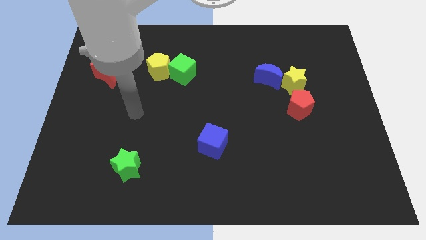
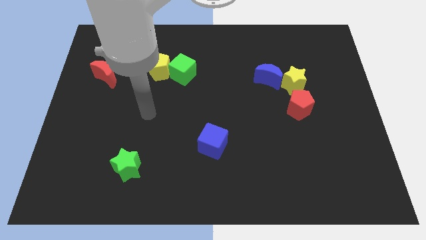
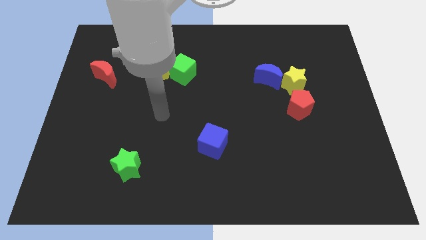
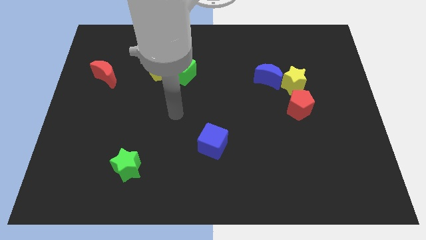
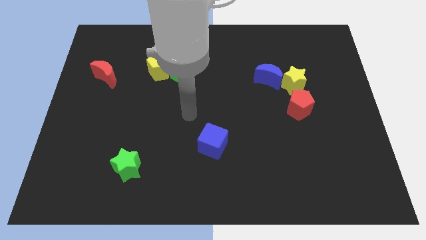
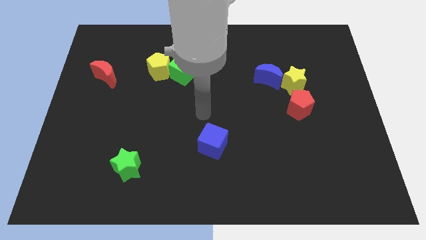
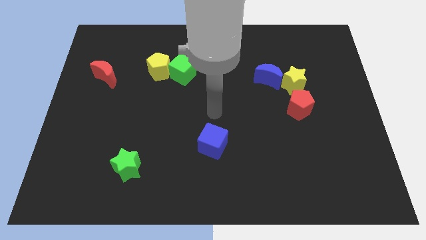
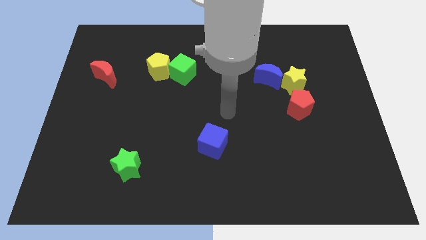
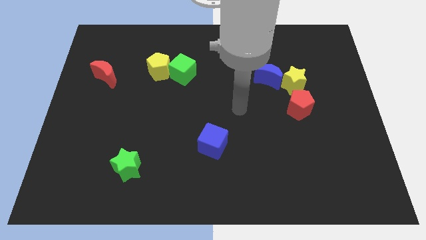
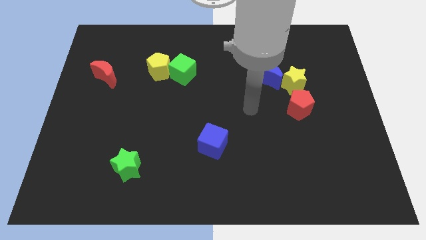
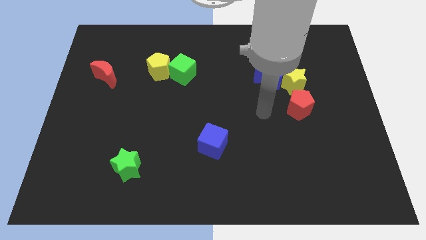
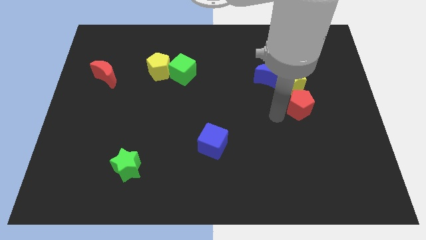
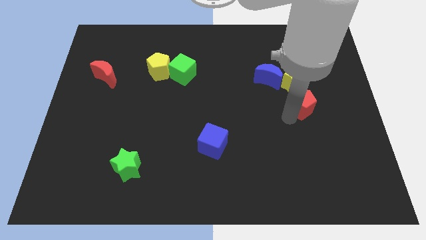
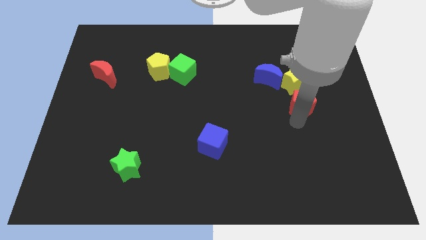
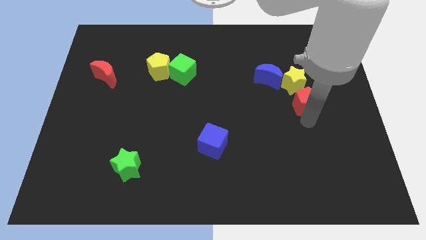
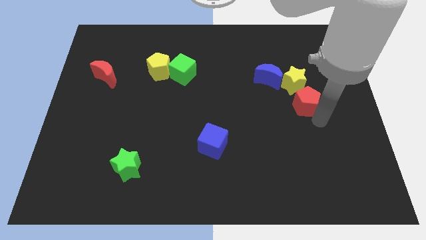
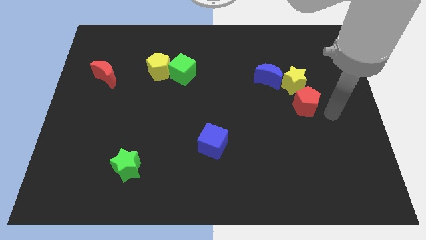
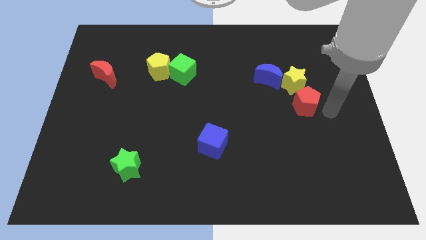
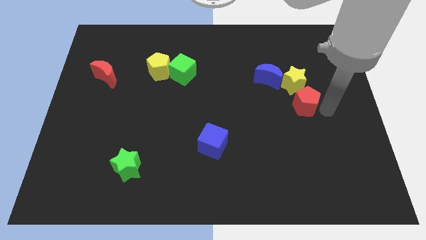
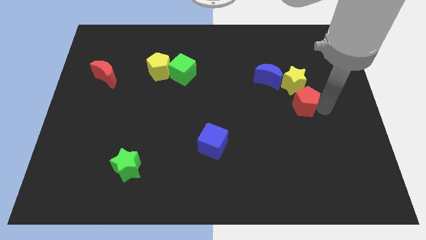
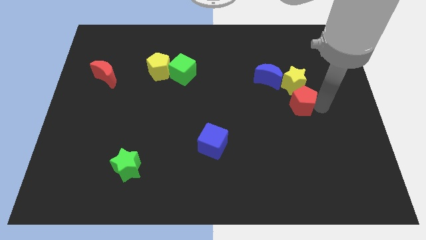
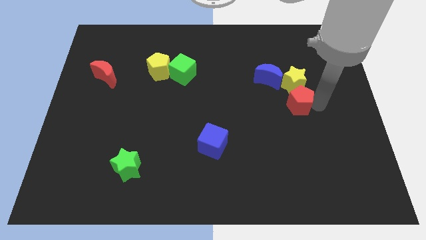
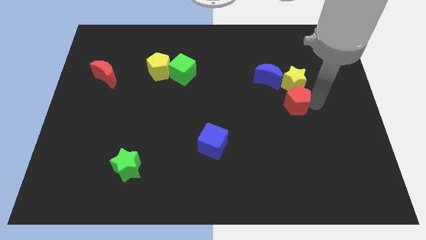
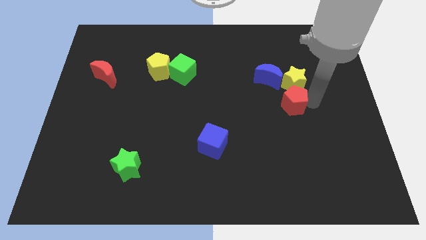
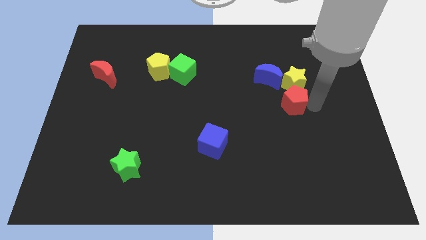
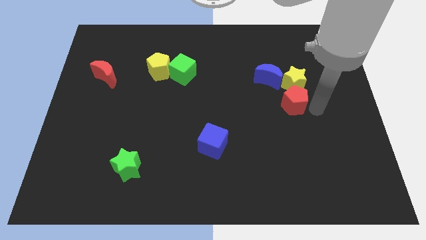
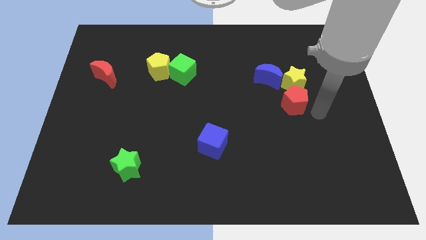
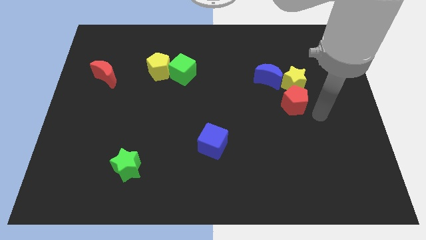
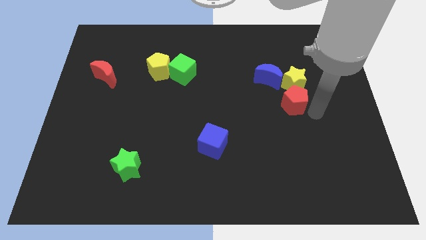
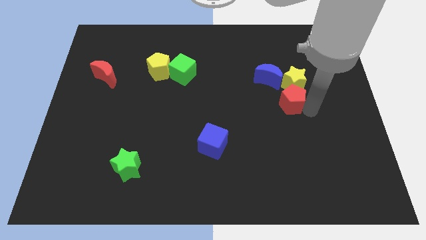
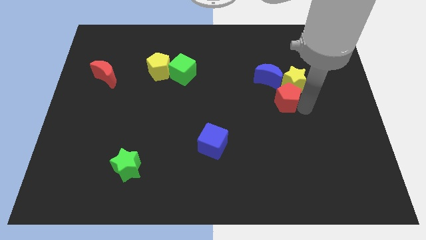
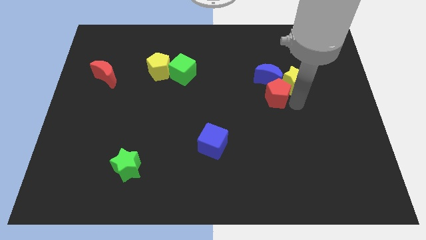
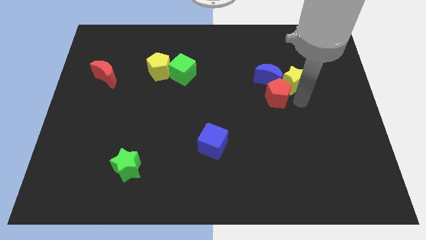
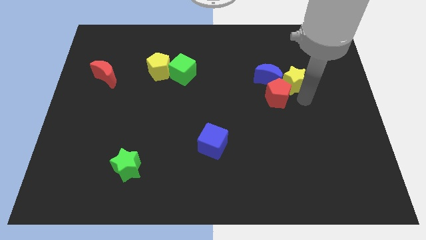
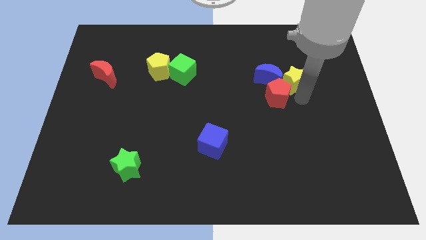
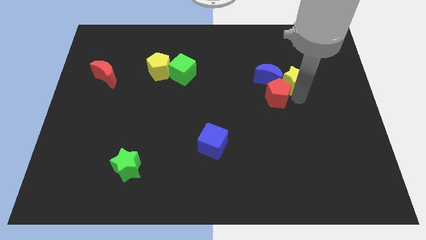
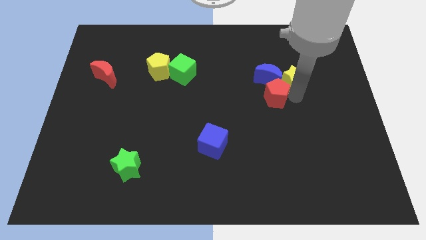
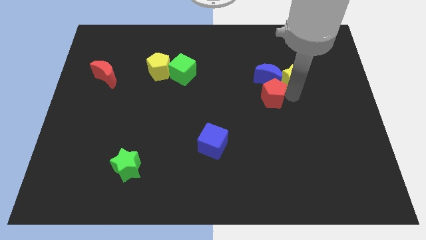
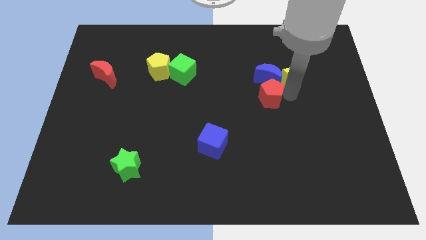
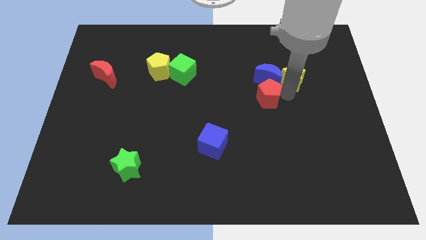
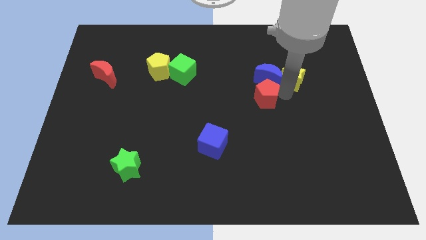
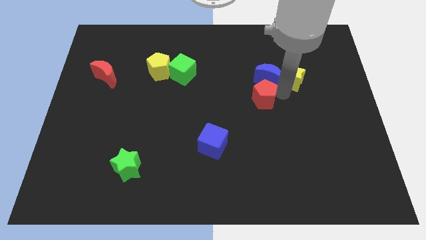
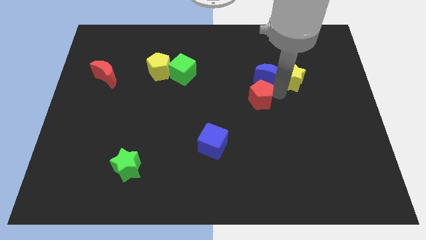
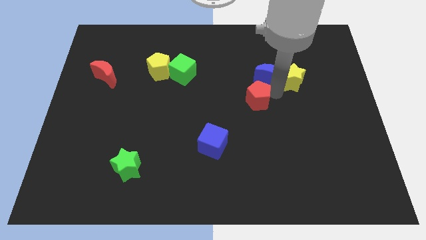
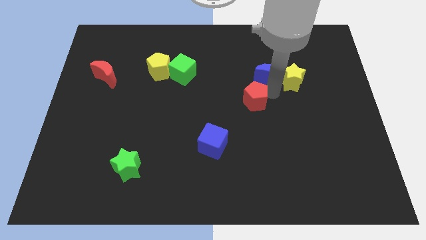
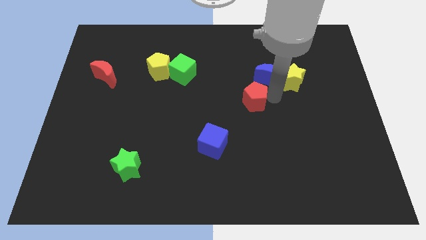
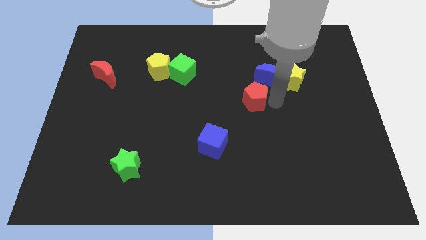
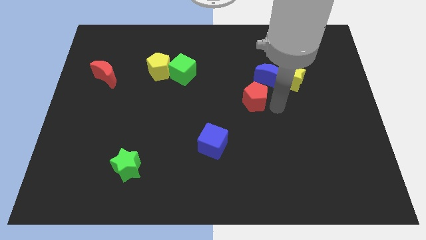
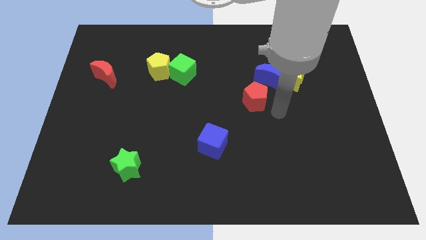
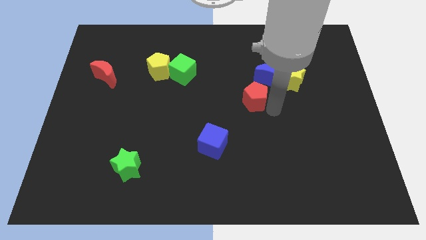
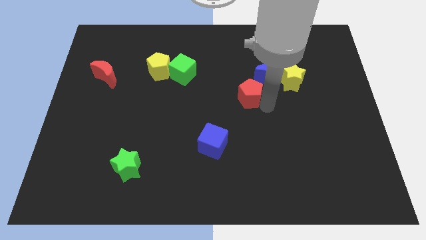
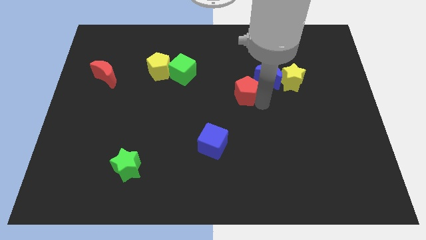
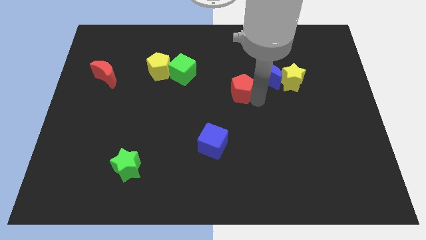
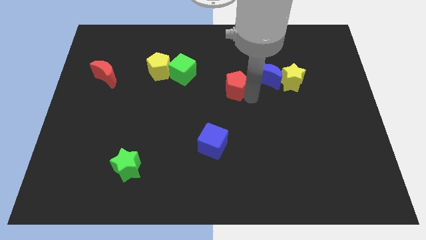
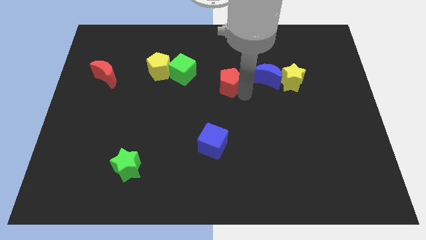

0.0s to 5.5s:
move the red pentagon to the right of the green cube

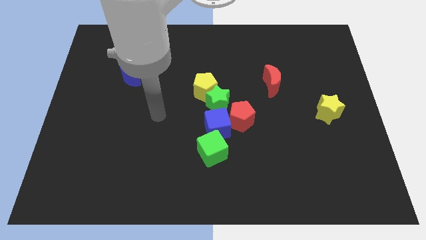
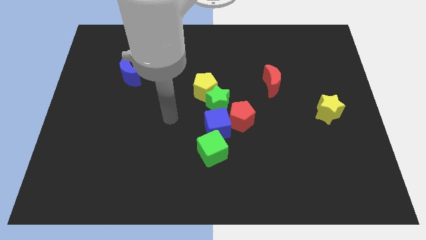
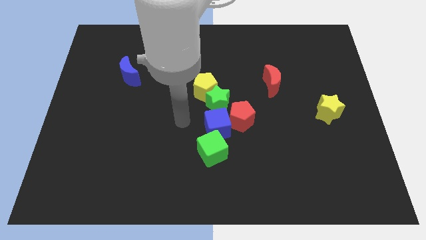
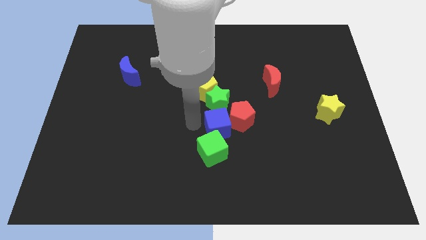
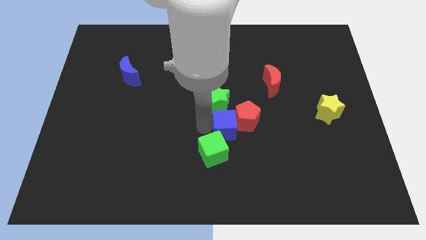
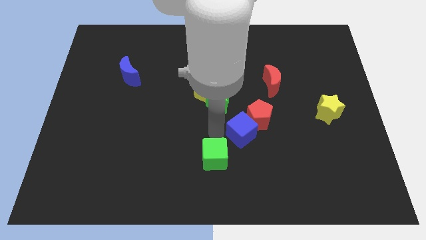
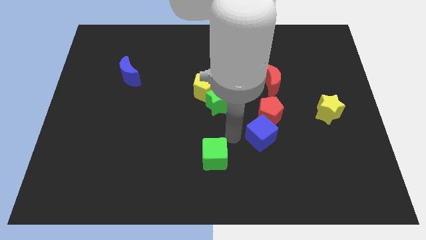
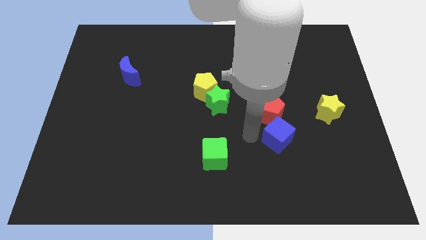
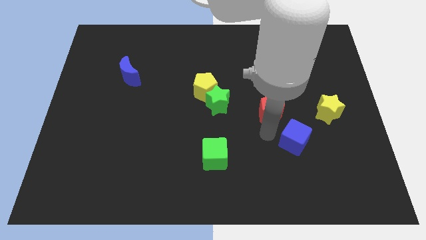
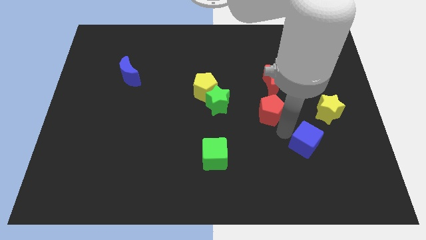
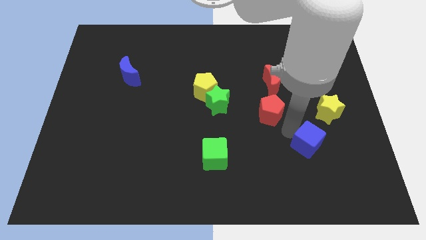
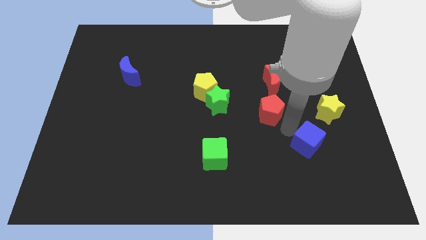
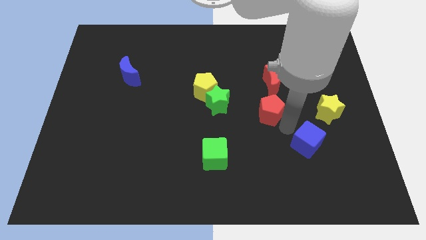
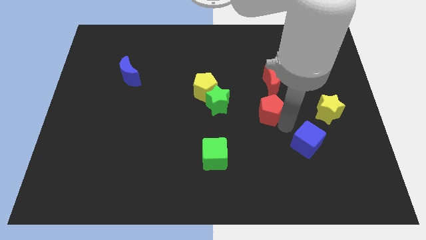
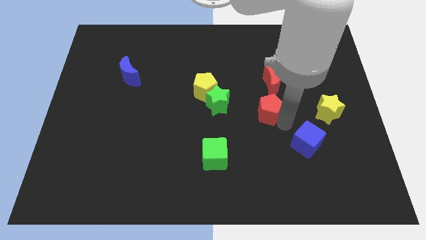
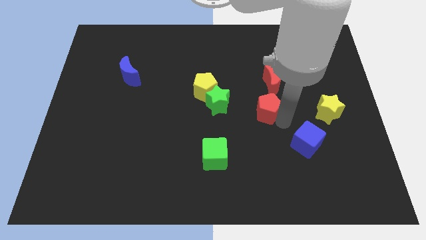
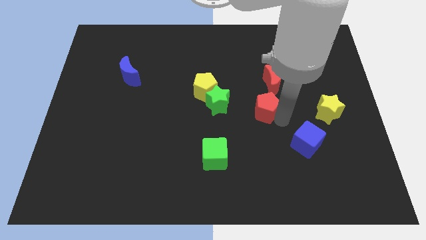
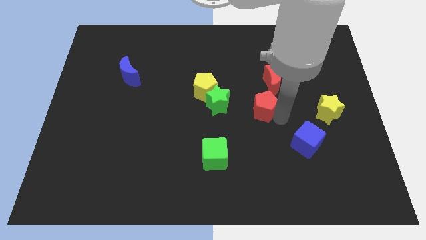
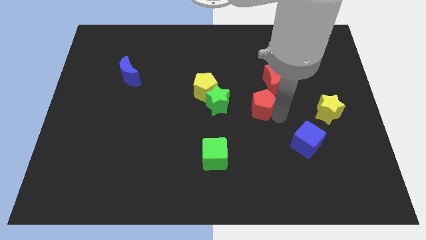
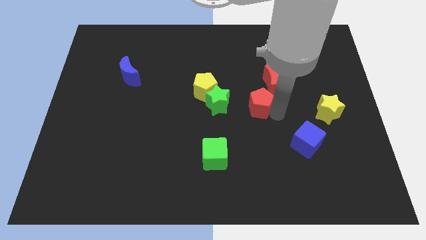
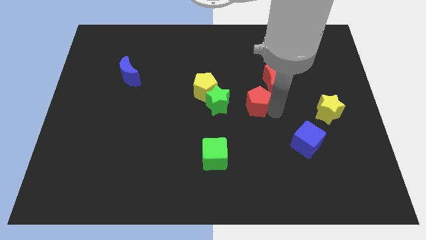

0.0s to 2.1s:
slide the red pentagon just right of the yellow pentagon
